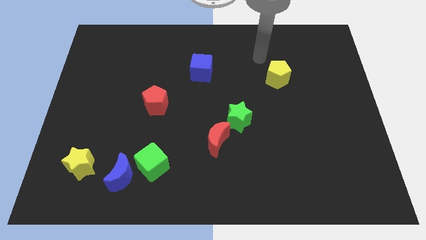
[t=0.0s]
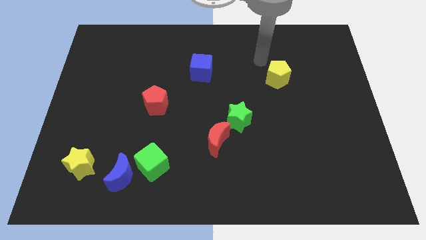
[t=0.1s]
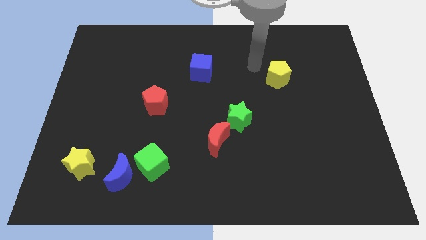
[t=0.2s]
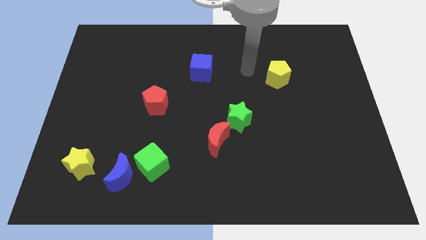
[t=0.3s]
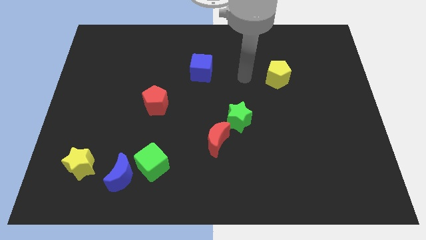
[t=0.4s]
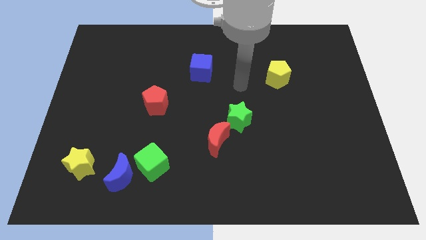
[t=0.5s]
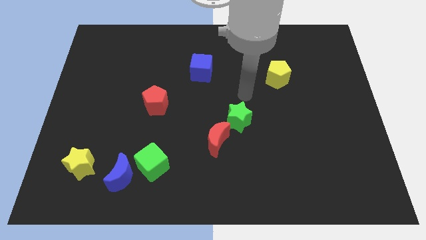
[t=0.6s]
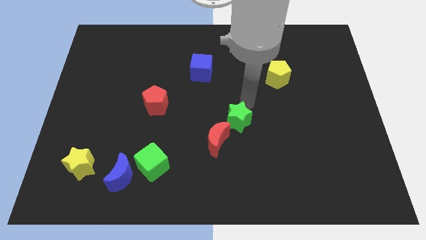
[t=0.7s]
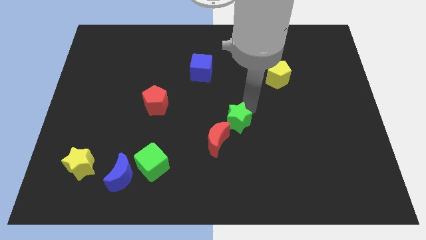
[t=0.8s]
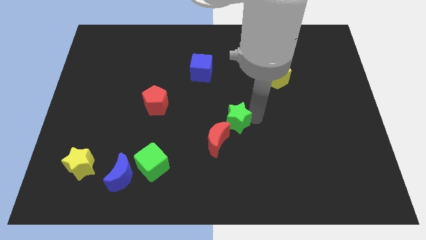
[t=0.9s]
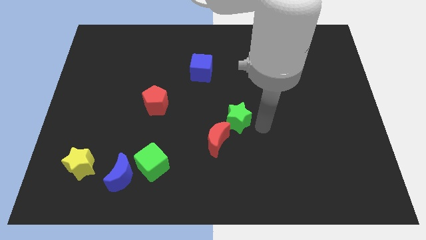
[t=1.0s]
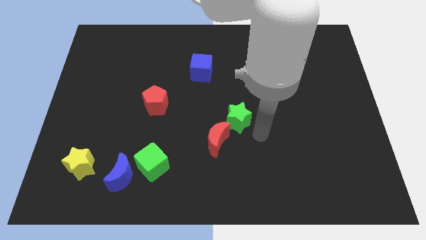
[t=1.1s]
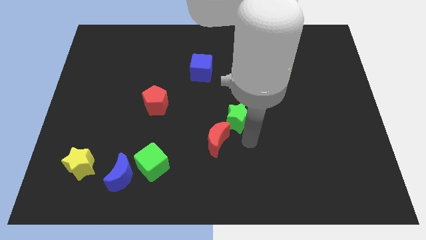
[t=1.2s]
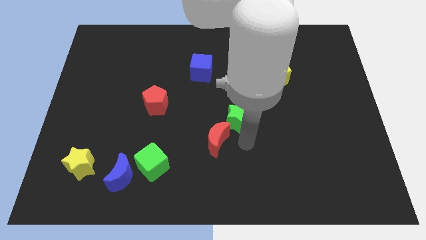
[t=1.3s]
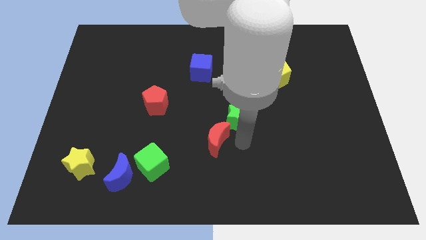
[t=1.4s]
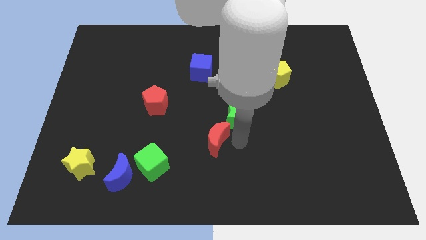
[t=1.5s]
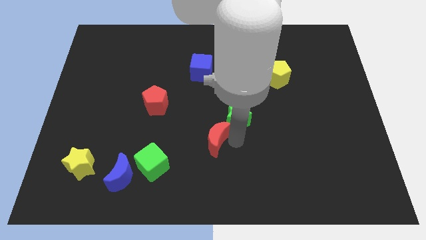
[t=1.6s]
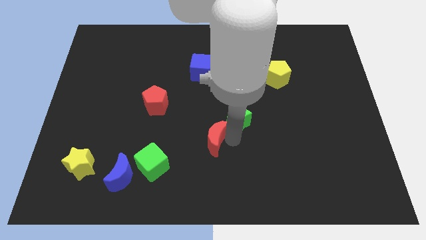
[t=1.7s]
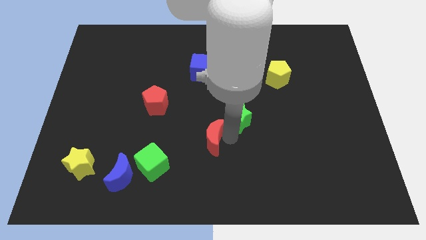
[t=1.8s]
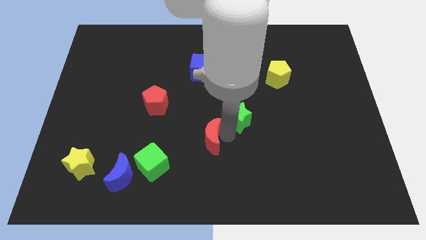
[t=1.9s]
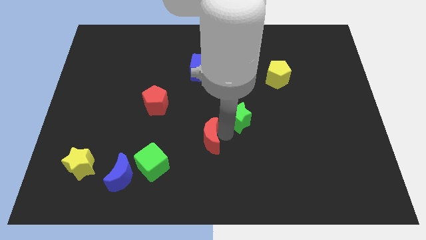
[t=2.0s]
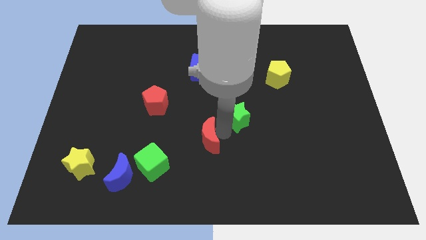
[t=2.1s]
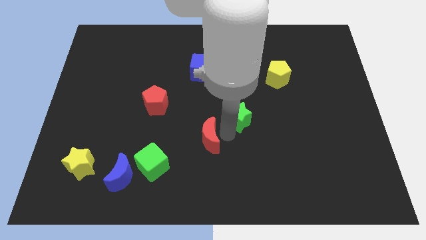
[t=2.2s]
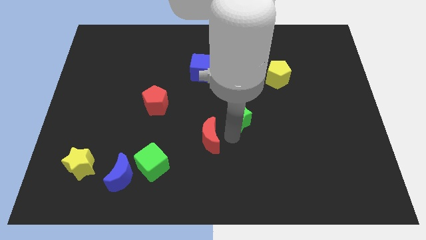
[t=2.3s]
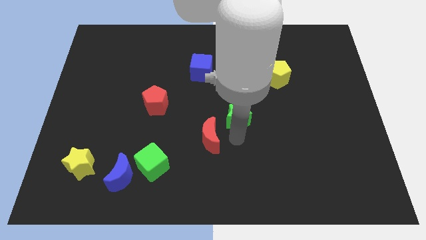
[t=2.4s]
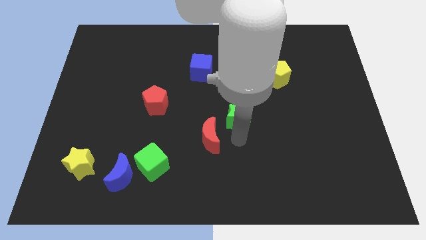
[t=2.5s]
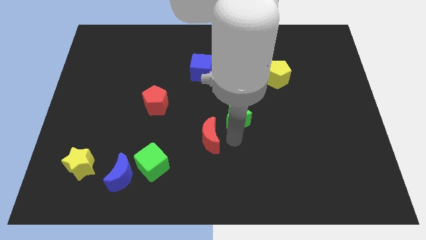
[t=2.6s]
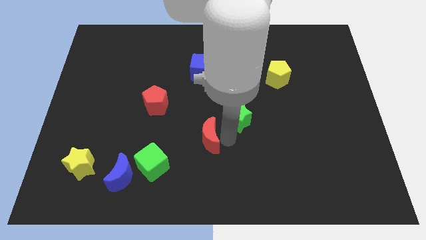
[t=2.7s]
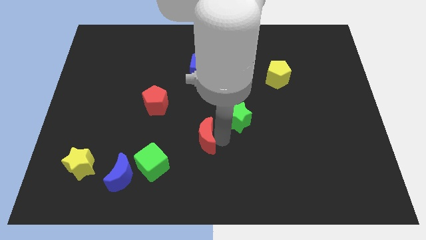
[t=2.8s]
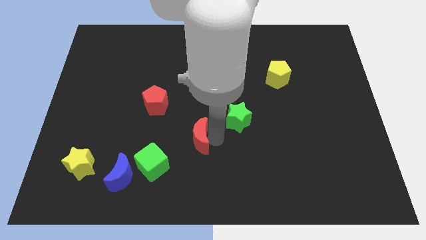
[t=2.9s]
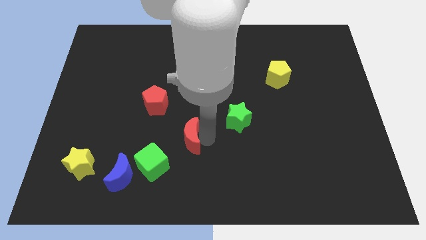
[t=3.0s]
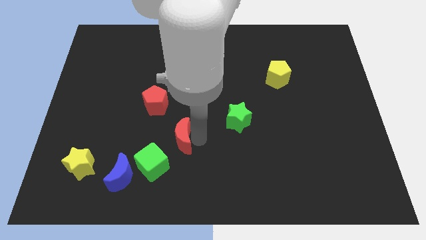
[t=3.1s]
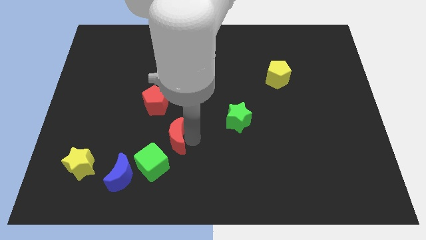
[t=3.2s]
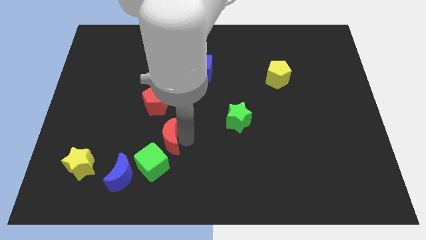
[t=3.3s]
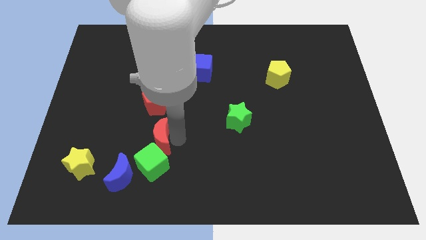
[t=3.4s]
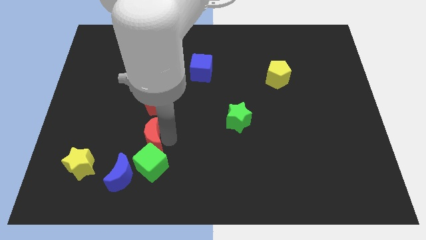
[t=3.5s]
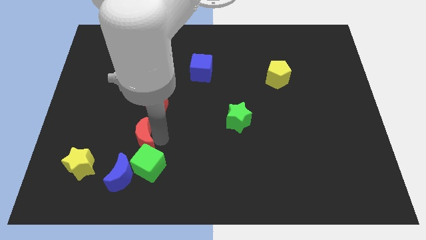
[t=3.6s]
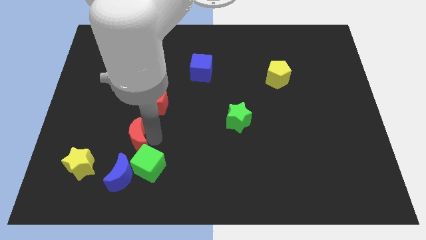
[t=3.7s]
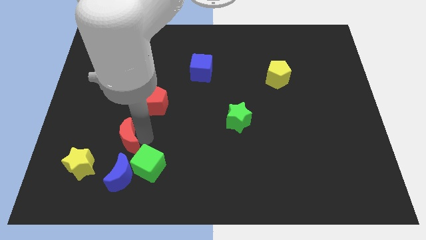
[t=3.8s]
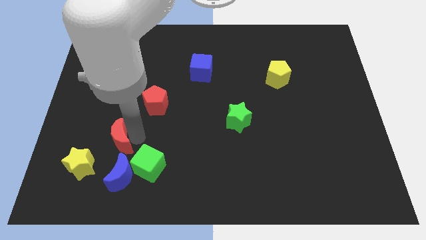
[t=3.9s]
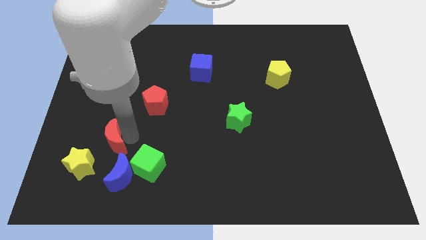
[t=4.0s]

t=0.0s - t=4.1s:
put the red moon to the top left of the blue moon

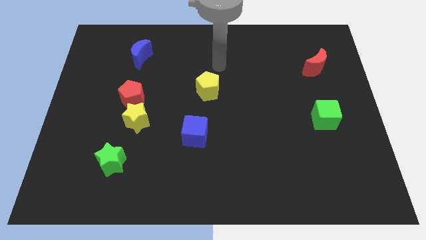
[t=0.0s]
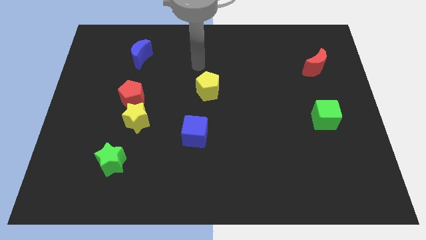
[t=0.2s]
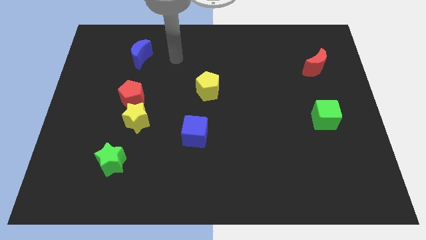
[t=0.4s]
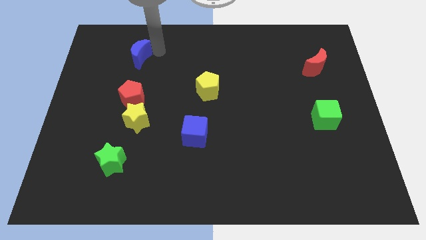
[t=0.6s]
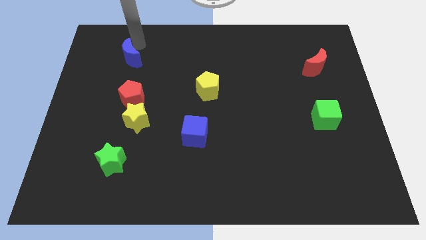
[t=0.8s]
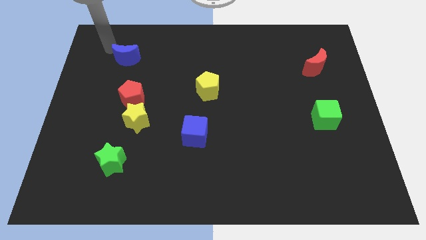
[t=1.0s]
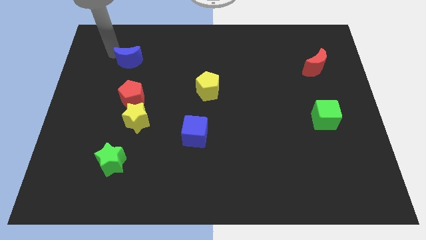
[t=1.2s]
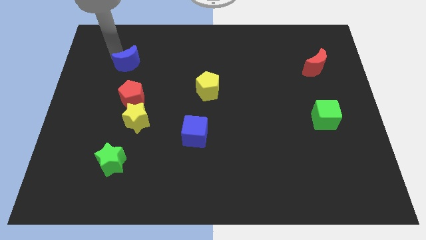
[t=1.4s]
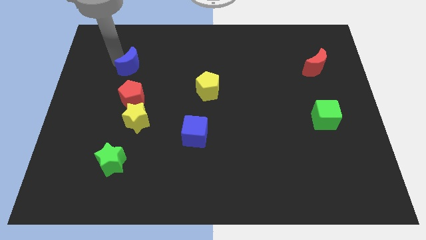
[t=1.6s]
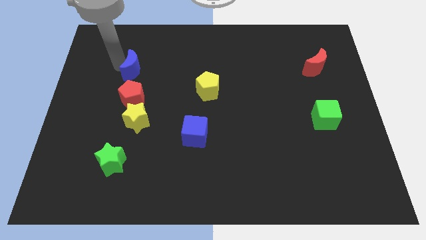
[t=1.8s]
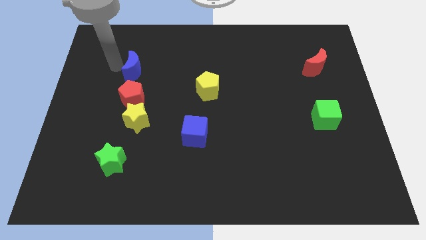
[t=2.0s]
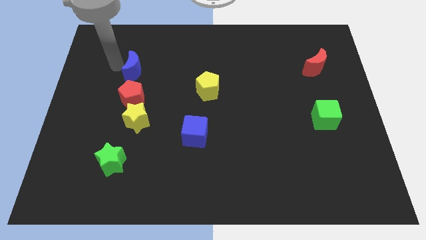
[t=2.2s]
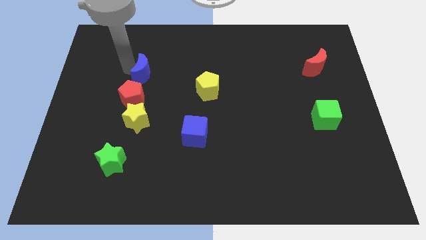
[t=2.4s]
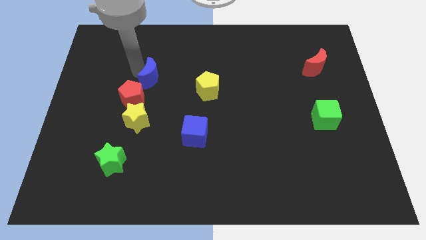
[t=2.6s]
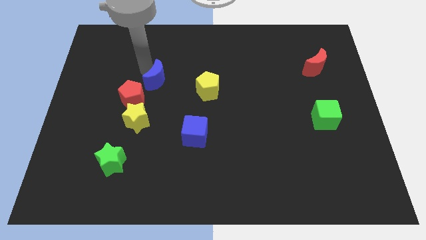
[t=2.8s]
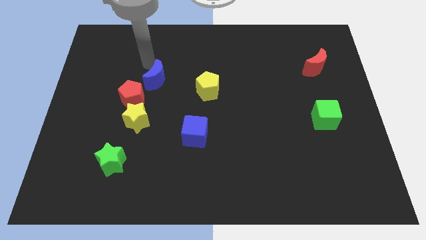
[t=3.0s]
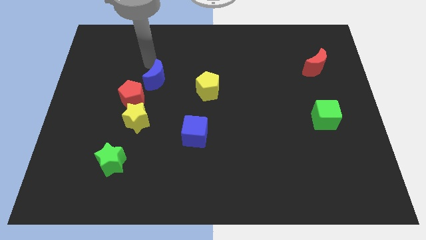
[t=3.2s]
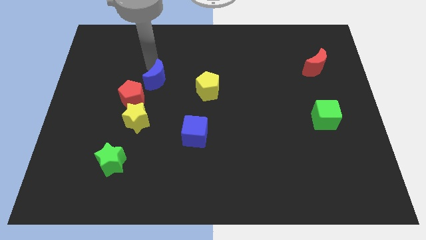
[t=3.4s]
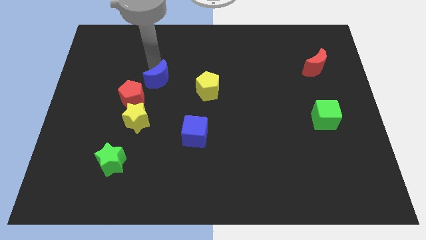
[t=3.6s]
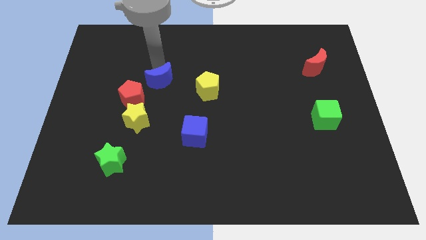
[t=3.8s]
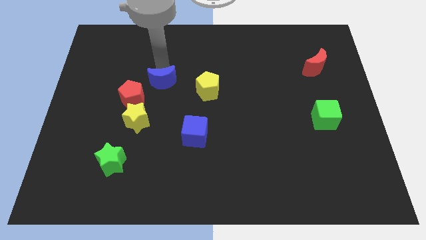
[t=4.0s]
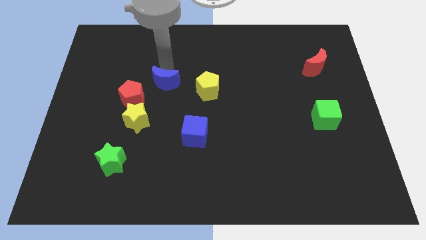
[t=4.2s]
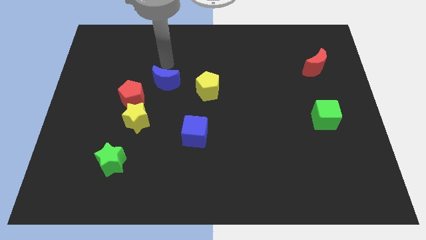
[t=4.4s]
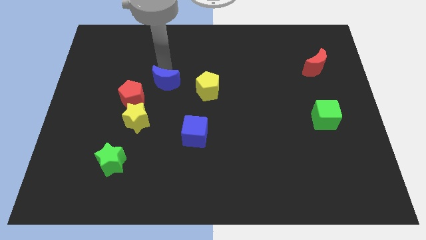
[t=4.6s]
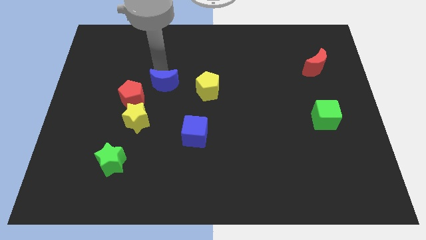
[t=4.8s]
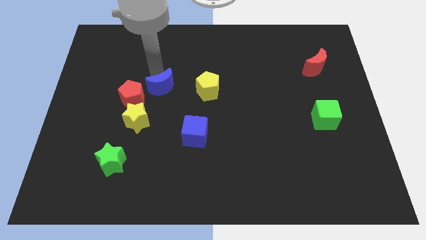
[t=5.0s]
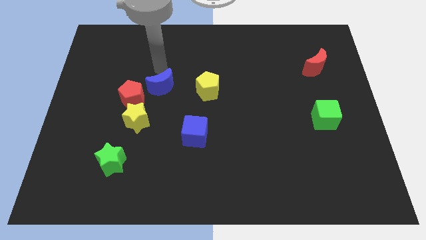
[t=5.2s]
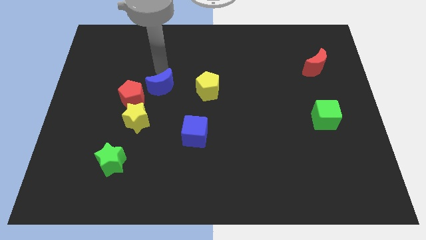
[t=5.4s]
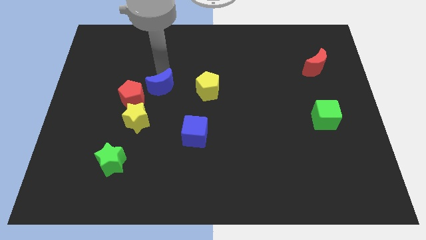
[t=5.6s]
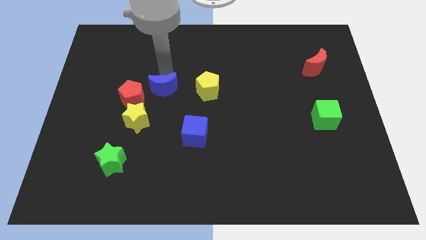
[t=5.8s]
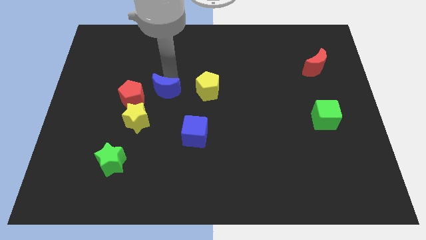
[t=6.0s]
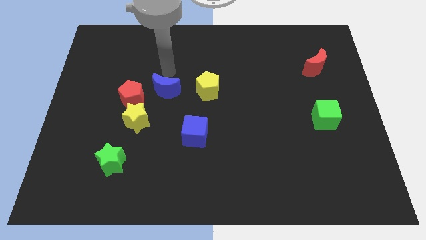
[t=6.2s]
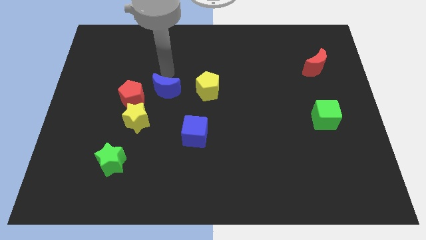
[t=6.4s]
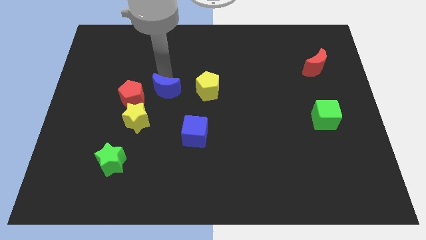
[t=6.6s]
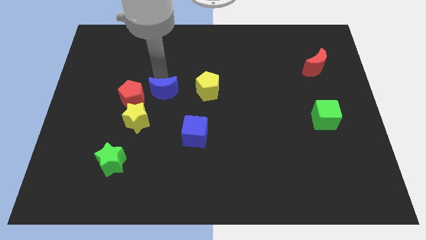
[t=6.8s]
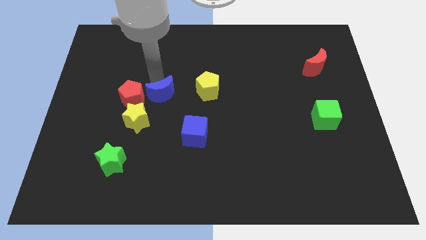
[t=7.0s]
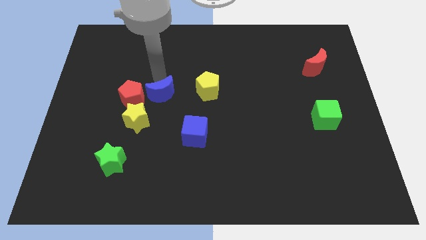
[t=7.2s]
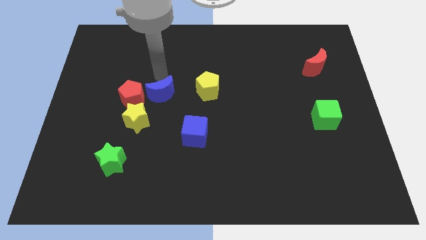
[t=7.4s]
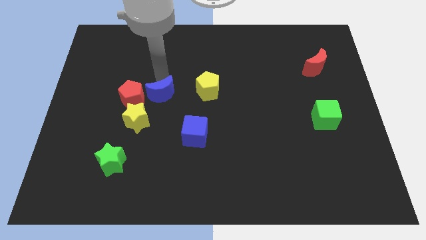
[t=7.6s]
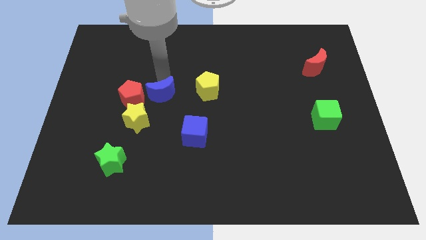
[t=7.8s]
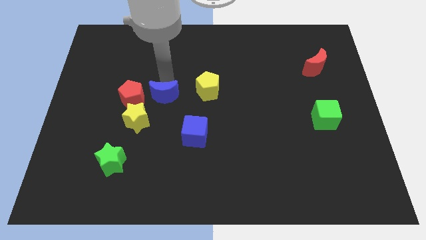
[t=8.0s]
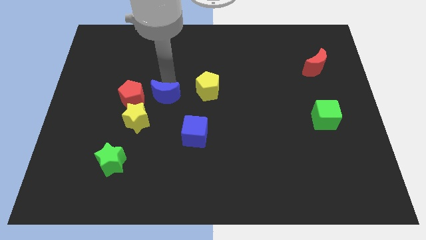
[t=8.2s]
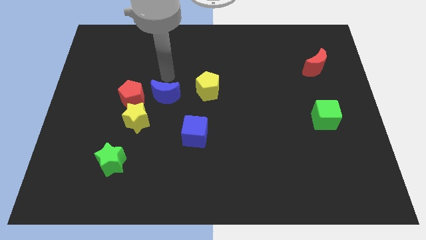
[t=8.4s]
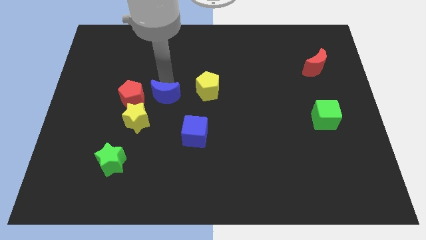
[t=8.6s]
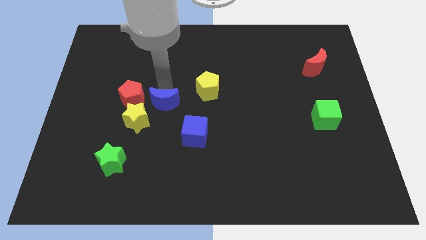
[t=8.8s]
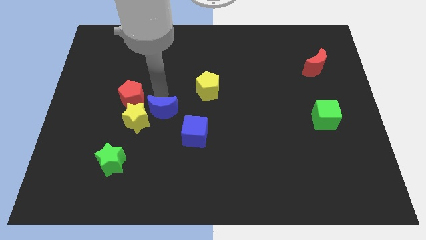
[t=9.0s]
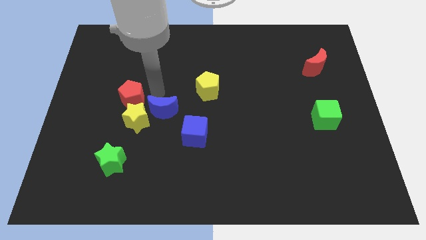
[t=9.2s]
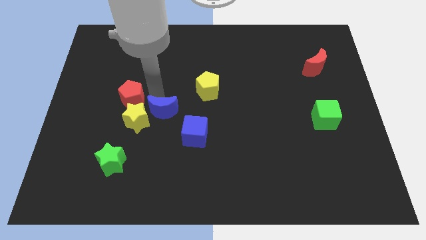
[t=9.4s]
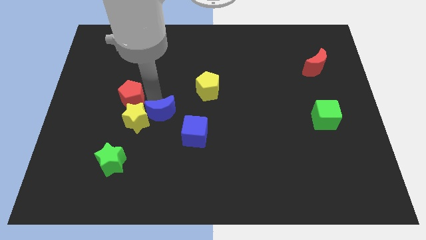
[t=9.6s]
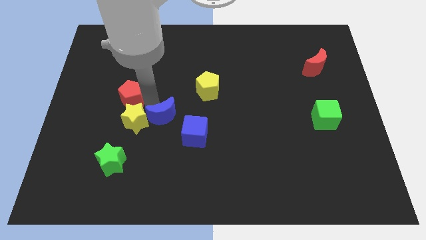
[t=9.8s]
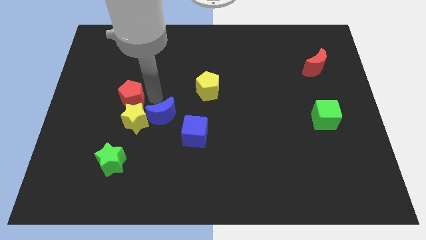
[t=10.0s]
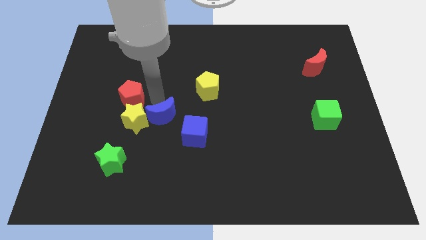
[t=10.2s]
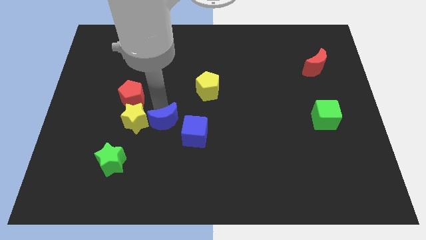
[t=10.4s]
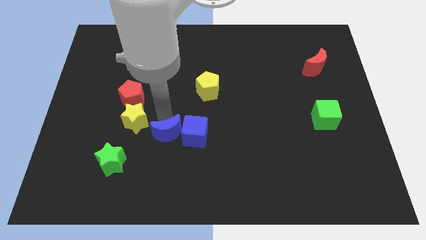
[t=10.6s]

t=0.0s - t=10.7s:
move the blue moon to the bottom left side of the blue cube
